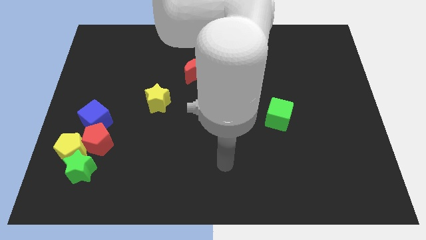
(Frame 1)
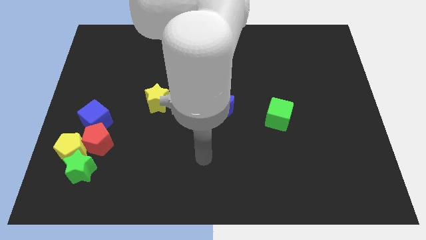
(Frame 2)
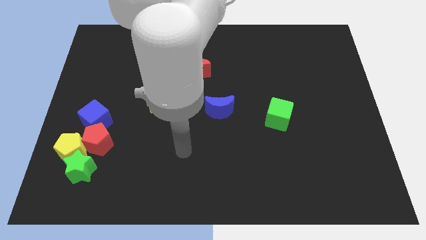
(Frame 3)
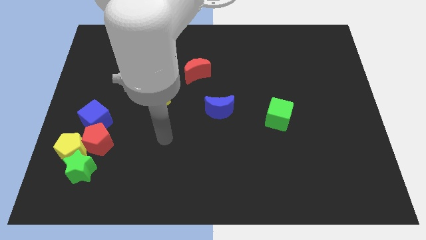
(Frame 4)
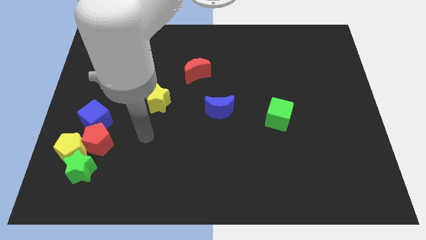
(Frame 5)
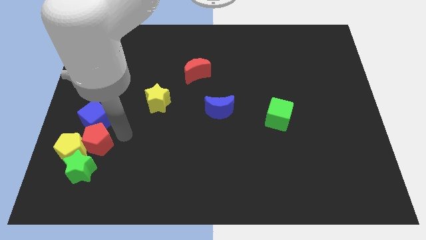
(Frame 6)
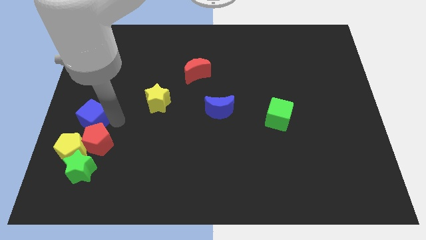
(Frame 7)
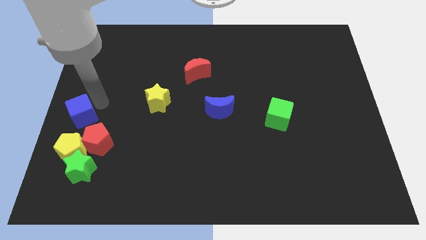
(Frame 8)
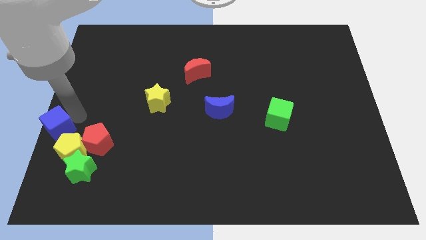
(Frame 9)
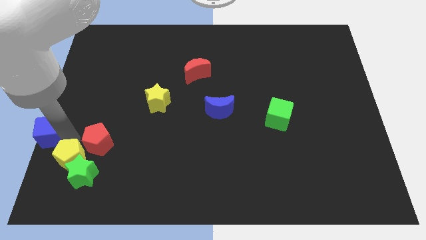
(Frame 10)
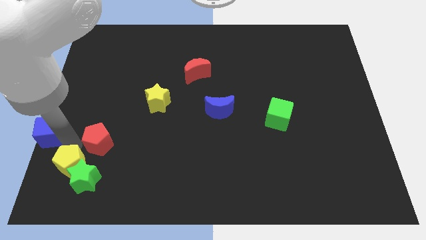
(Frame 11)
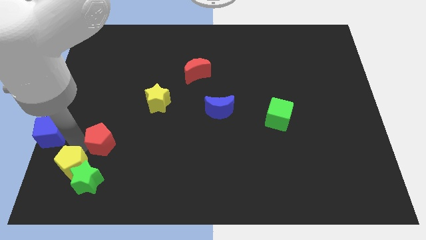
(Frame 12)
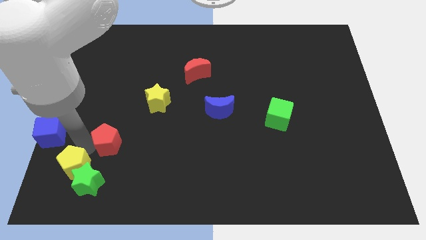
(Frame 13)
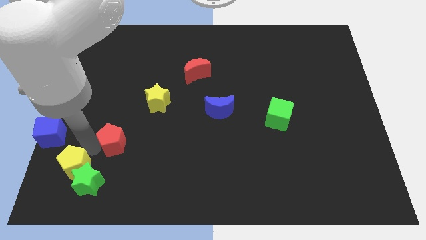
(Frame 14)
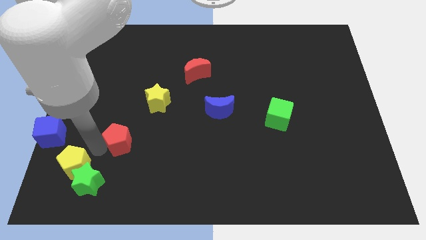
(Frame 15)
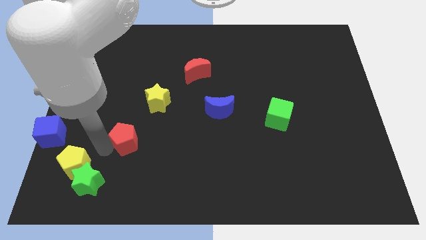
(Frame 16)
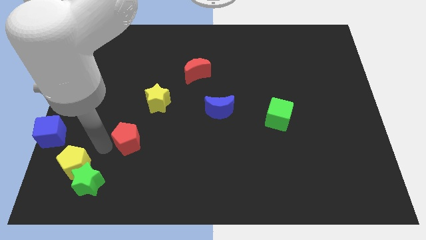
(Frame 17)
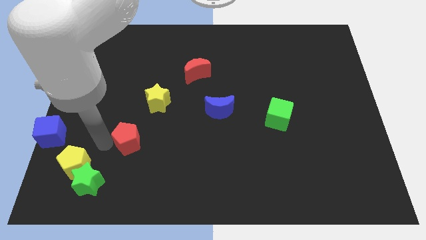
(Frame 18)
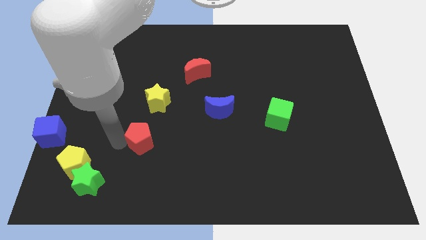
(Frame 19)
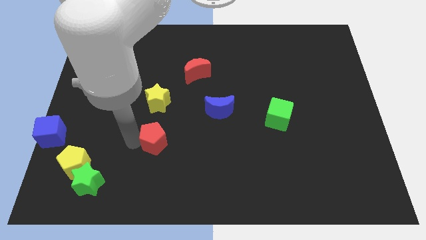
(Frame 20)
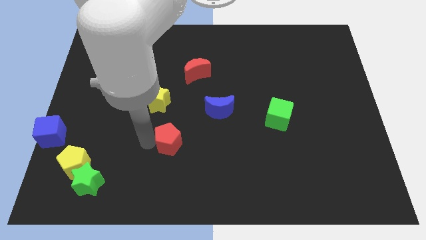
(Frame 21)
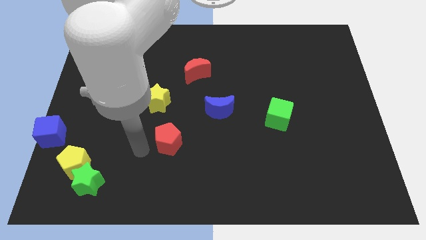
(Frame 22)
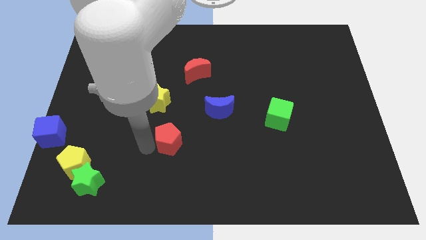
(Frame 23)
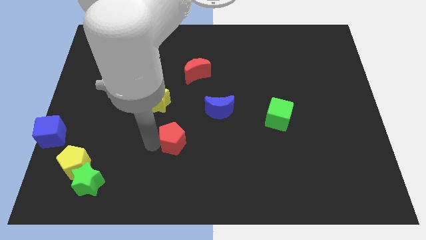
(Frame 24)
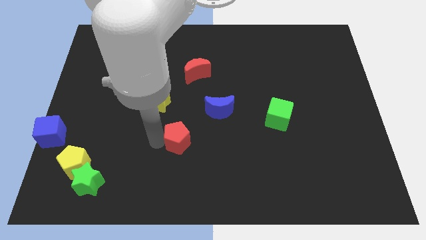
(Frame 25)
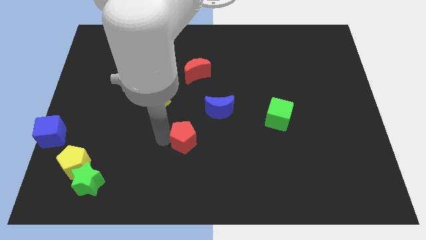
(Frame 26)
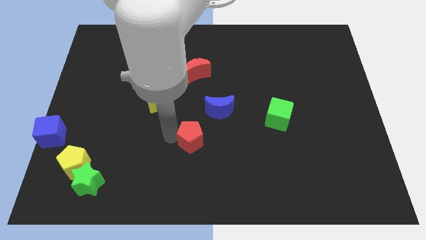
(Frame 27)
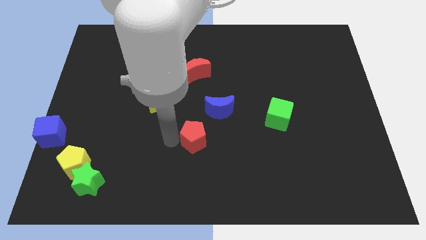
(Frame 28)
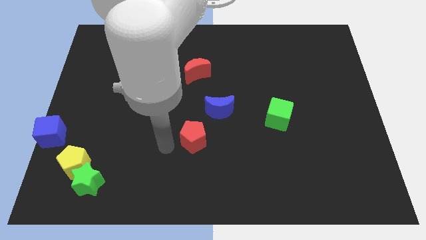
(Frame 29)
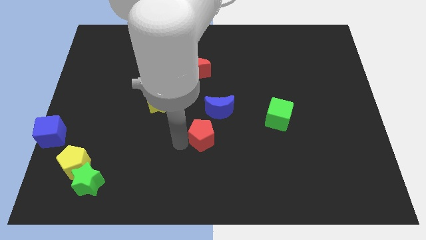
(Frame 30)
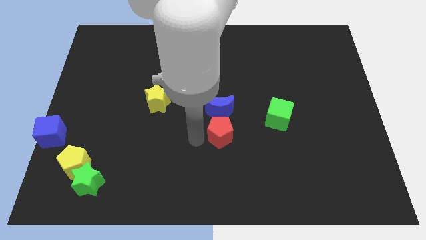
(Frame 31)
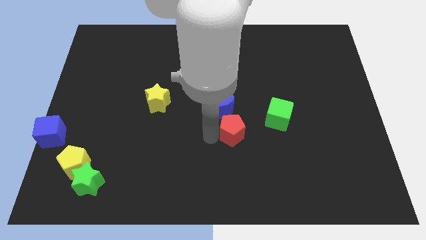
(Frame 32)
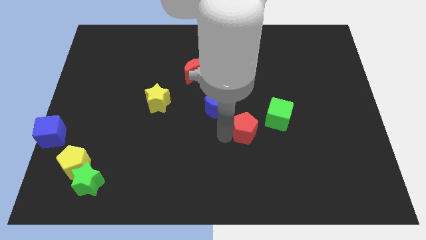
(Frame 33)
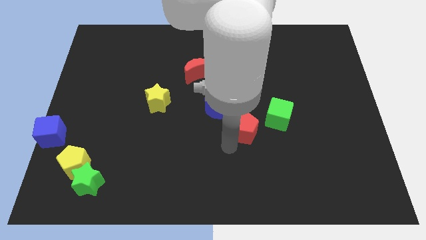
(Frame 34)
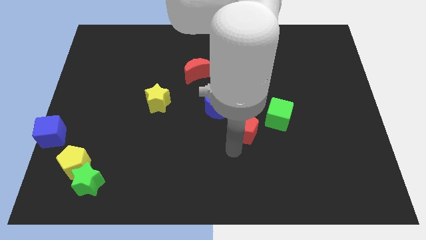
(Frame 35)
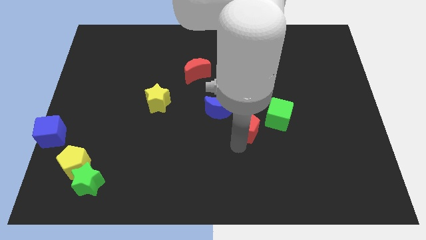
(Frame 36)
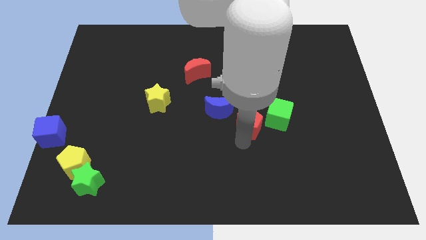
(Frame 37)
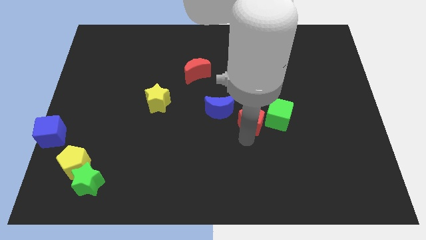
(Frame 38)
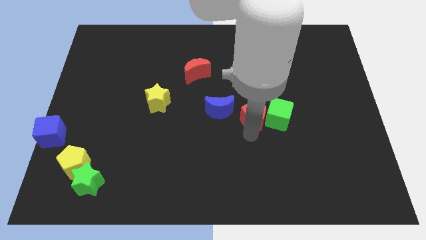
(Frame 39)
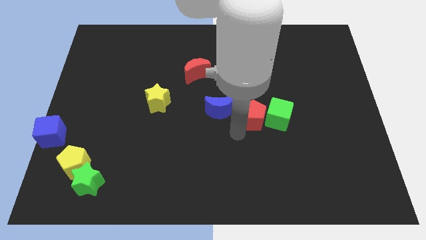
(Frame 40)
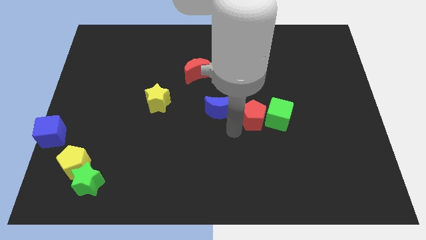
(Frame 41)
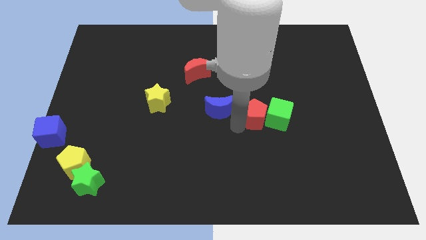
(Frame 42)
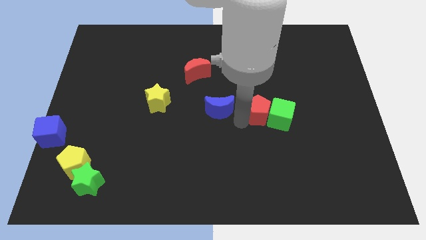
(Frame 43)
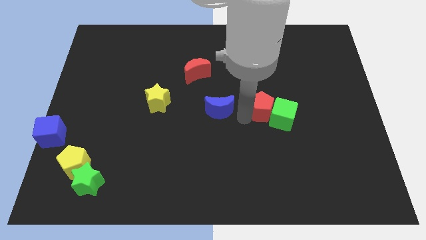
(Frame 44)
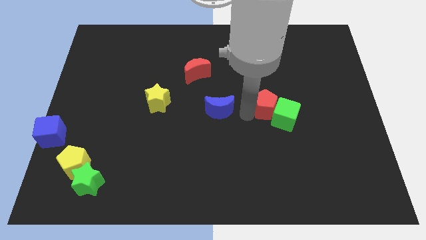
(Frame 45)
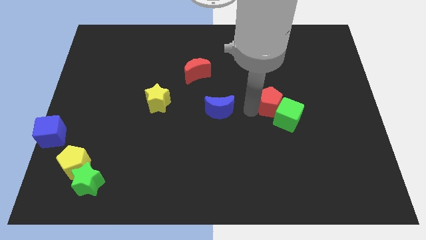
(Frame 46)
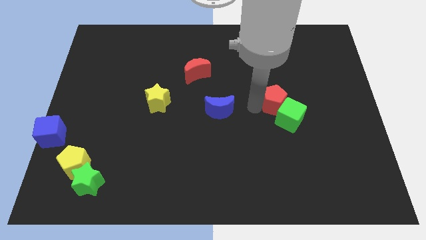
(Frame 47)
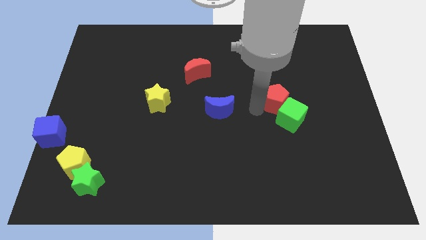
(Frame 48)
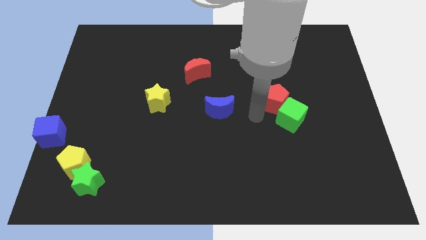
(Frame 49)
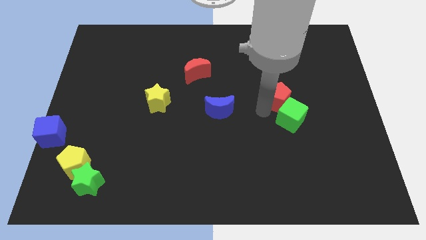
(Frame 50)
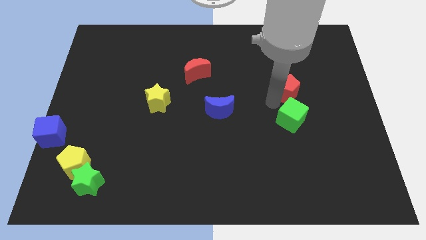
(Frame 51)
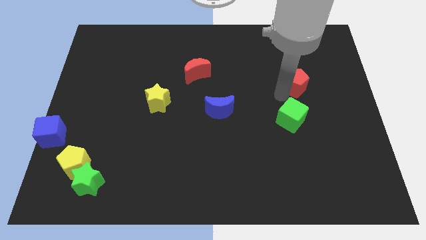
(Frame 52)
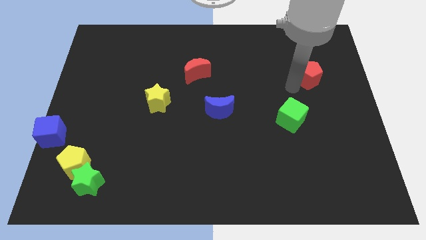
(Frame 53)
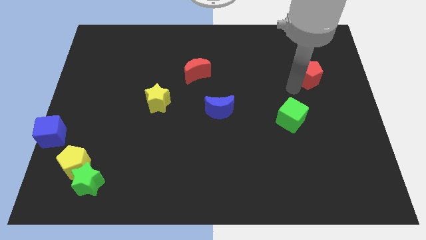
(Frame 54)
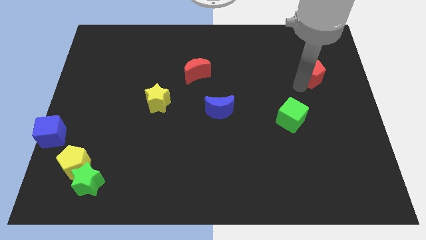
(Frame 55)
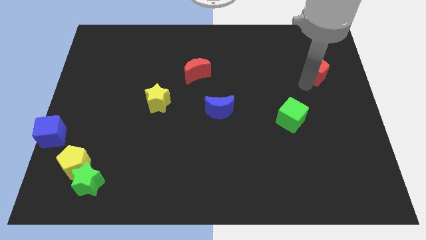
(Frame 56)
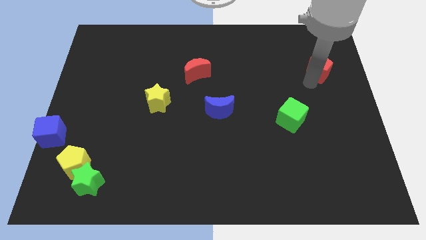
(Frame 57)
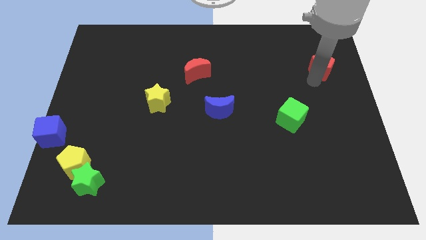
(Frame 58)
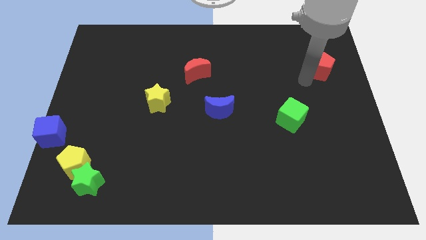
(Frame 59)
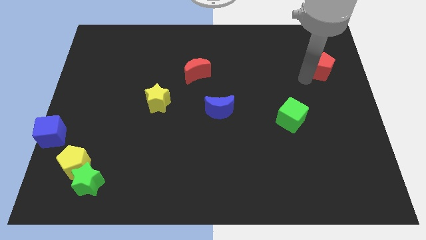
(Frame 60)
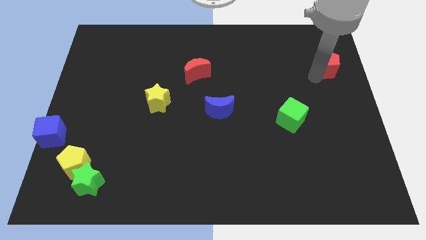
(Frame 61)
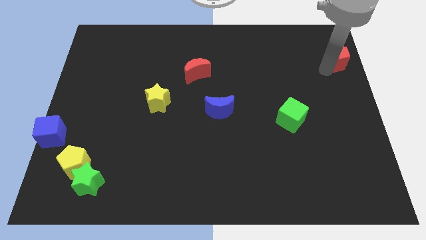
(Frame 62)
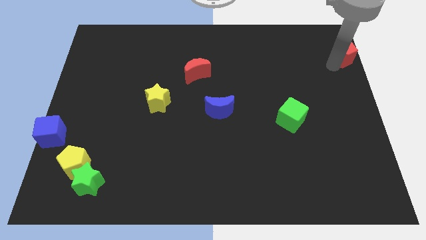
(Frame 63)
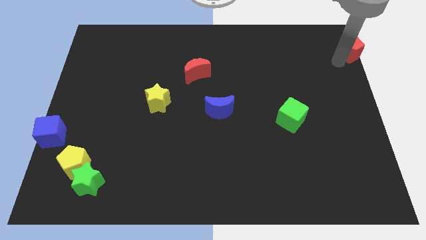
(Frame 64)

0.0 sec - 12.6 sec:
push the red pentagon to the upper right corner

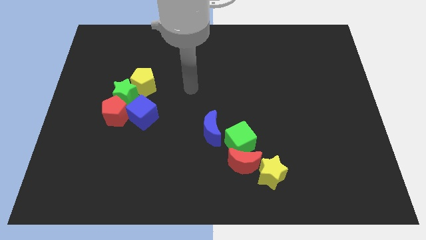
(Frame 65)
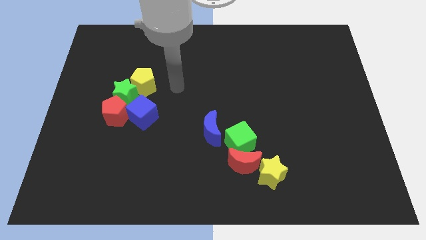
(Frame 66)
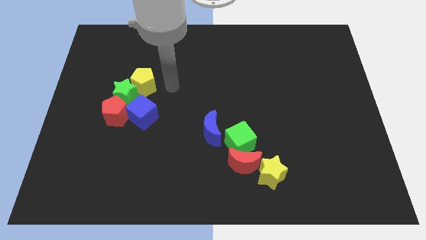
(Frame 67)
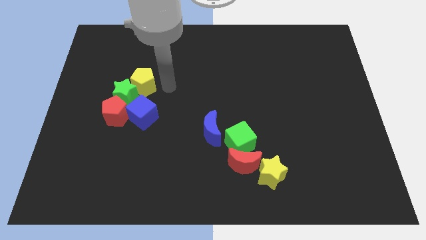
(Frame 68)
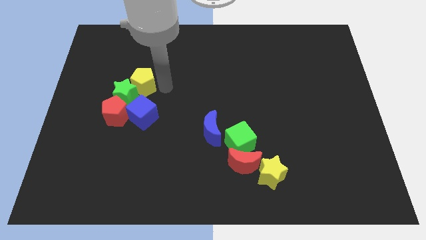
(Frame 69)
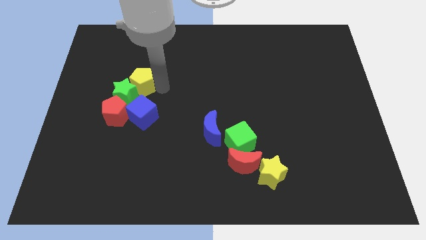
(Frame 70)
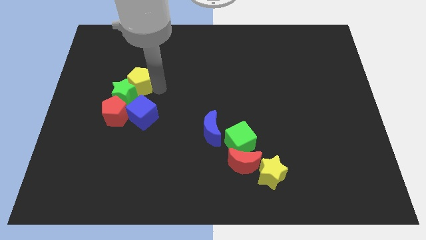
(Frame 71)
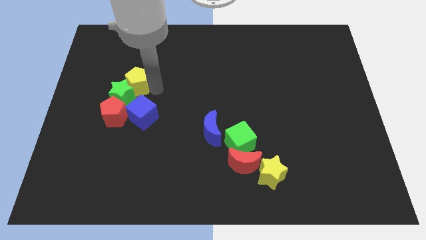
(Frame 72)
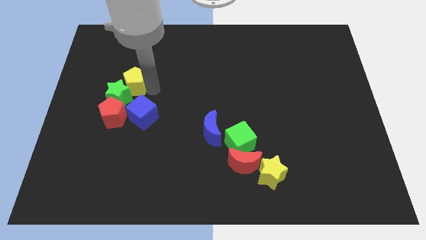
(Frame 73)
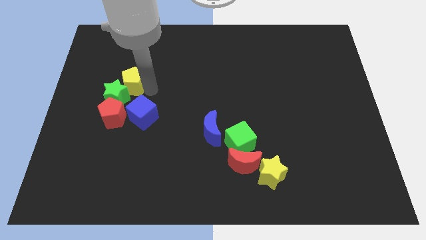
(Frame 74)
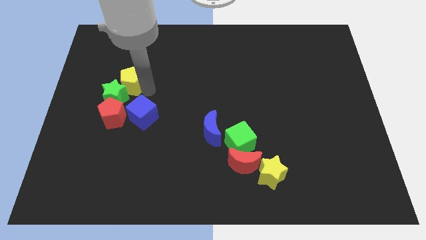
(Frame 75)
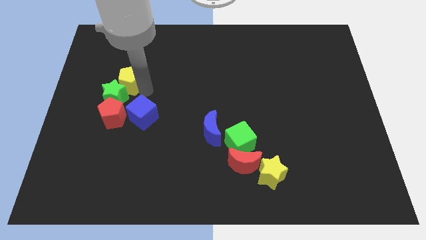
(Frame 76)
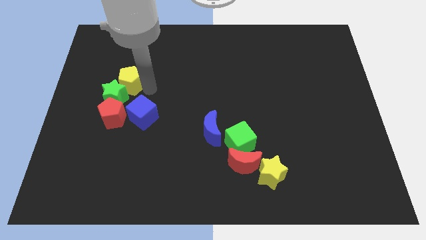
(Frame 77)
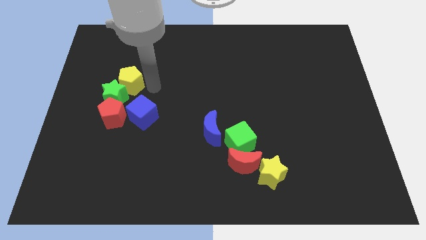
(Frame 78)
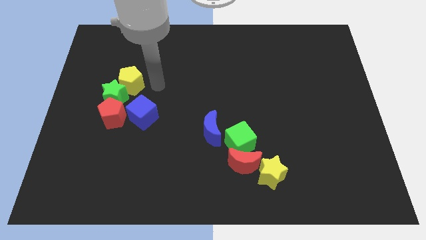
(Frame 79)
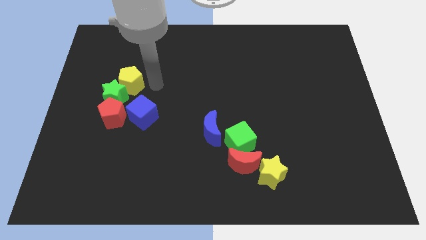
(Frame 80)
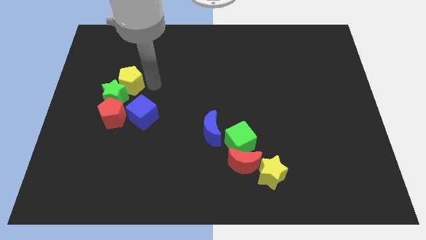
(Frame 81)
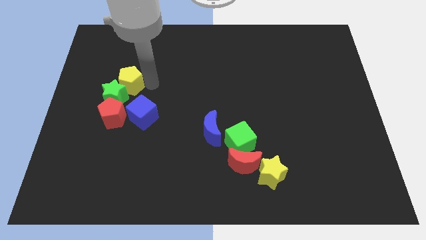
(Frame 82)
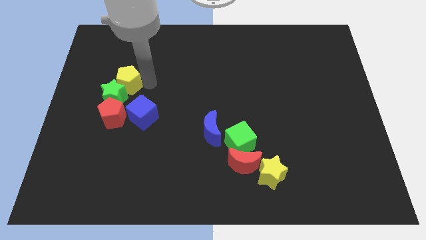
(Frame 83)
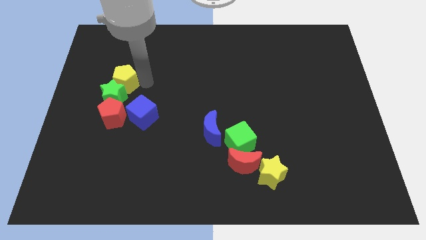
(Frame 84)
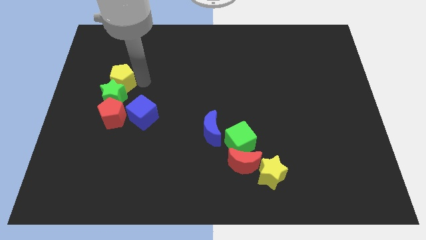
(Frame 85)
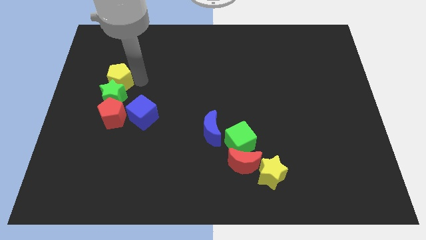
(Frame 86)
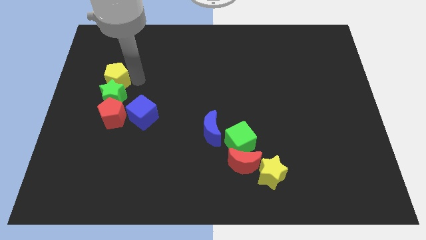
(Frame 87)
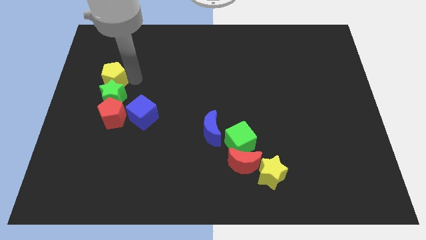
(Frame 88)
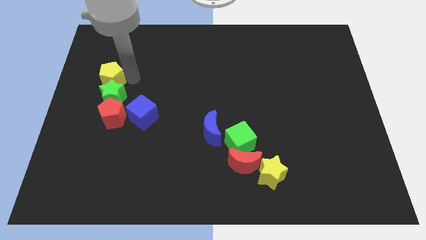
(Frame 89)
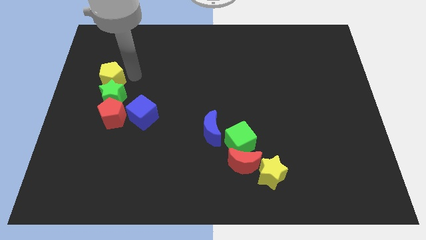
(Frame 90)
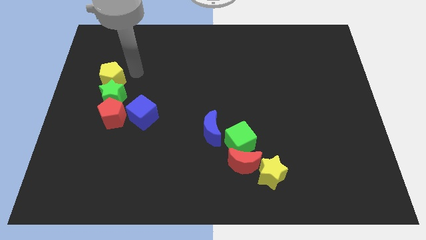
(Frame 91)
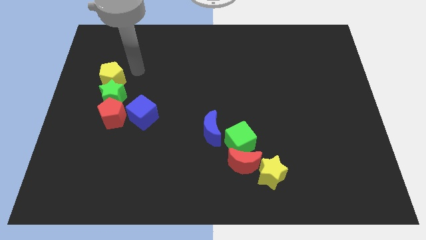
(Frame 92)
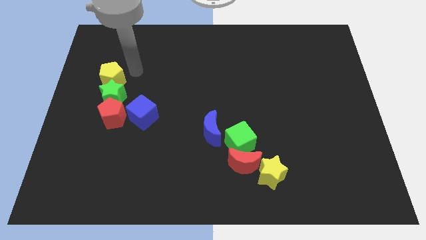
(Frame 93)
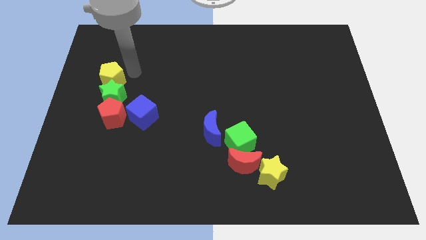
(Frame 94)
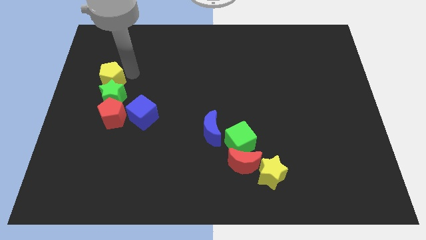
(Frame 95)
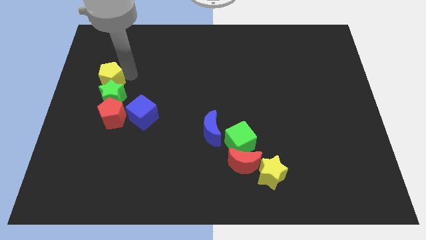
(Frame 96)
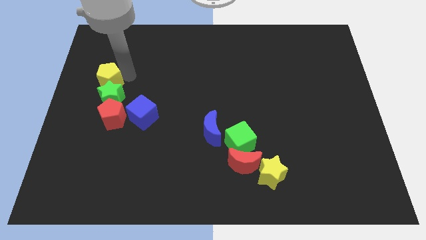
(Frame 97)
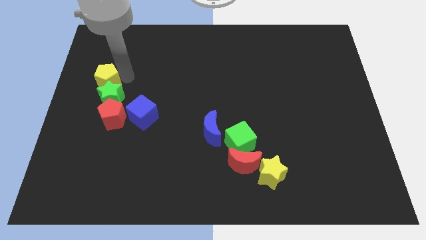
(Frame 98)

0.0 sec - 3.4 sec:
put the yellow pentagon to the left side
